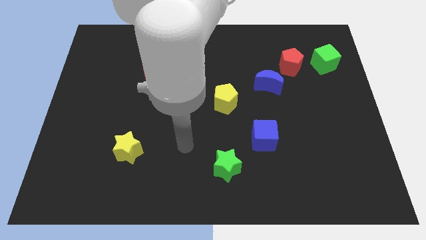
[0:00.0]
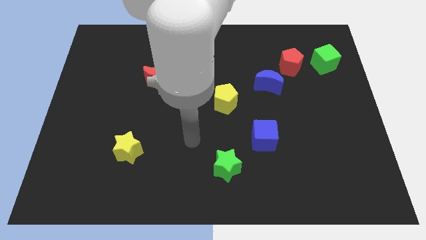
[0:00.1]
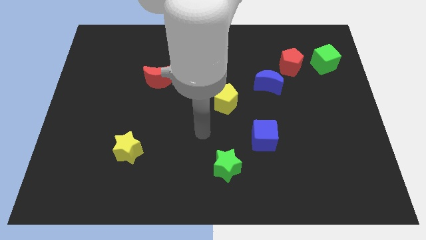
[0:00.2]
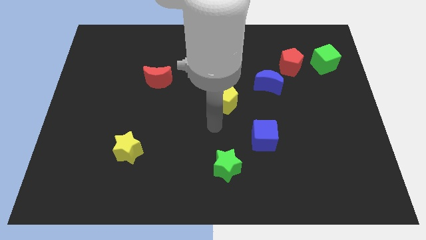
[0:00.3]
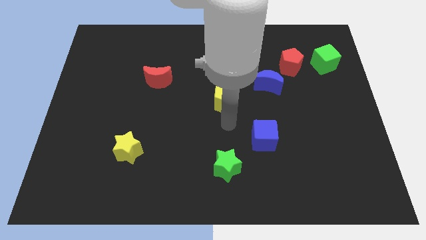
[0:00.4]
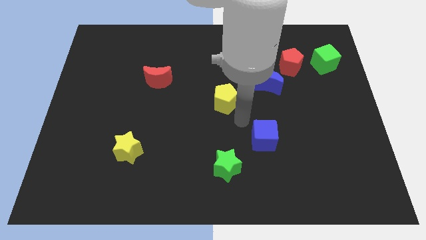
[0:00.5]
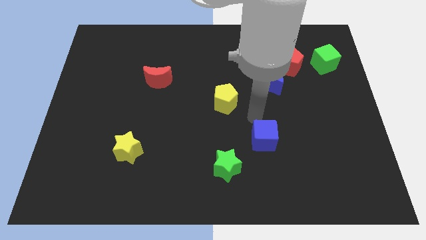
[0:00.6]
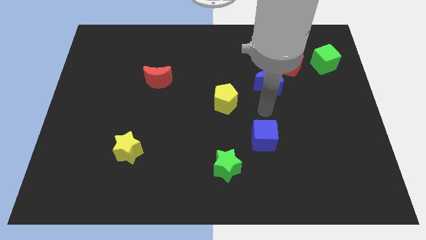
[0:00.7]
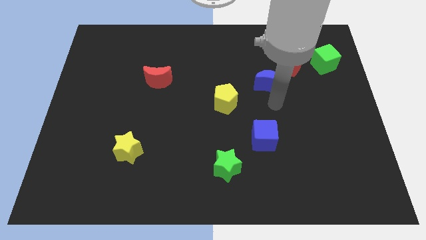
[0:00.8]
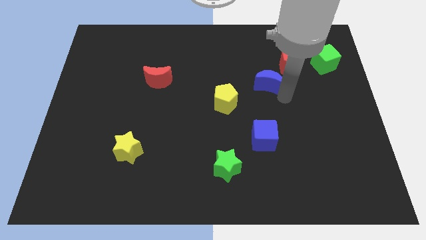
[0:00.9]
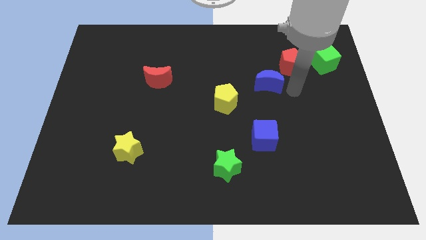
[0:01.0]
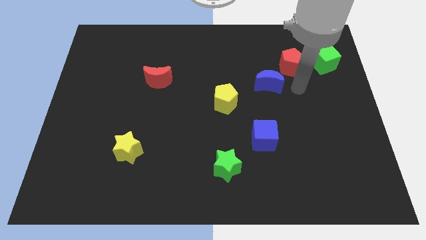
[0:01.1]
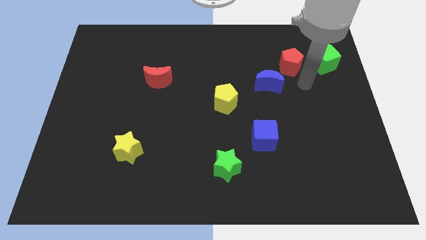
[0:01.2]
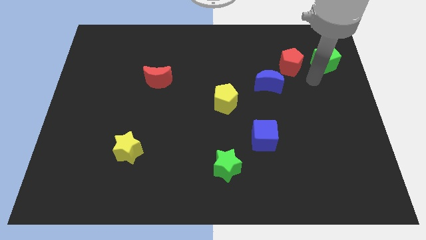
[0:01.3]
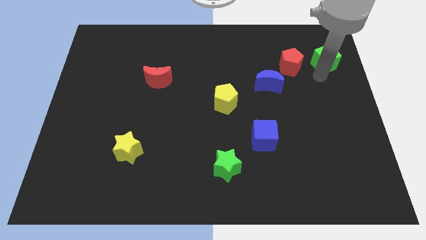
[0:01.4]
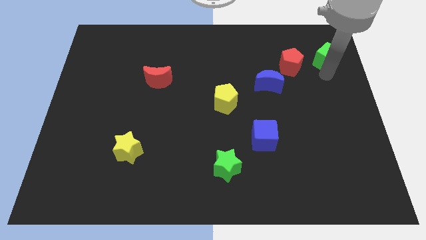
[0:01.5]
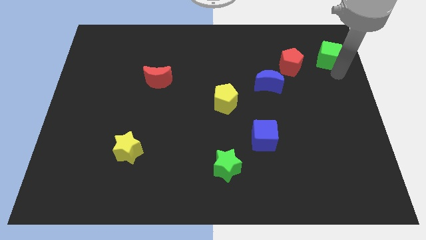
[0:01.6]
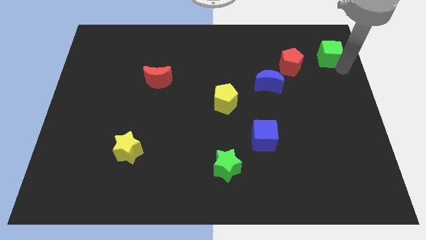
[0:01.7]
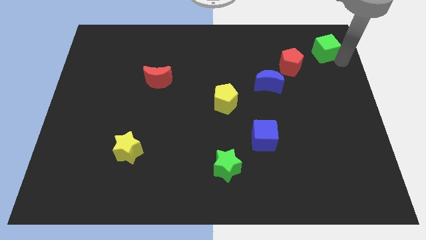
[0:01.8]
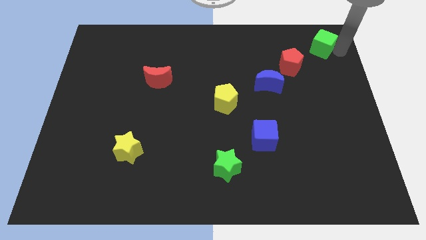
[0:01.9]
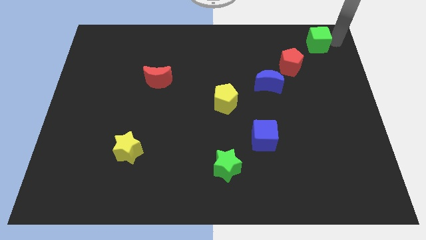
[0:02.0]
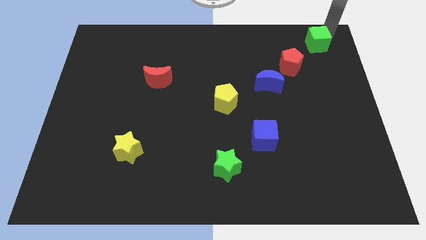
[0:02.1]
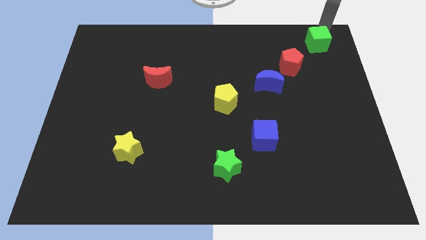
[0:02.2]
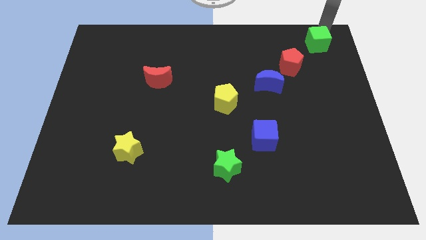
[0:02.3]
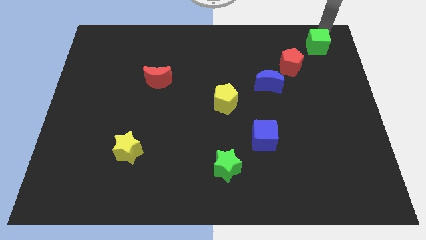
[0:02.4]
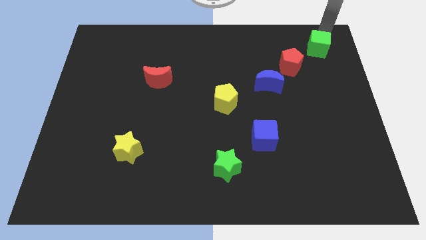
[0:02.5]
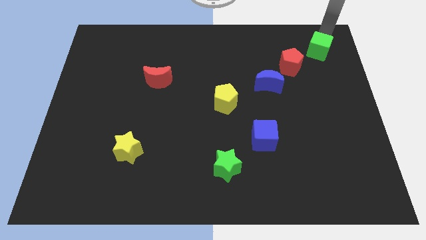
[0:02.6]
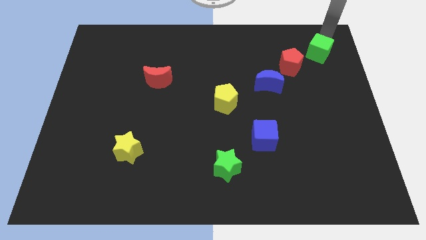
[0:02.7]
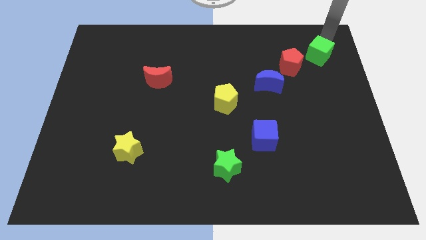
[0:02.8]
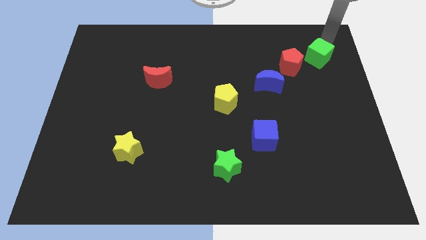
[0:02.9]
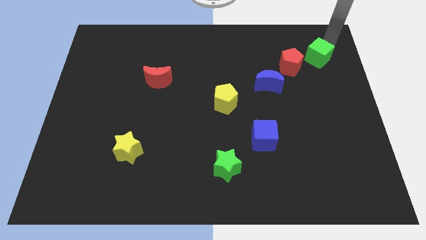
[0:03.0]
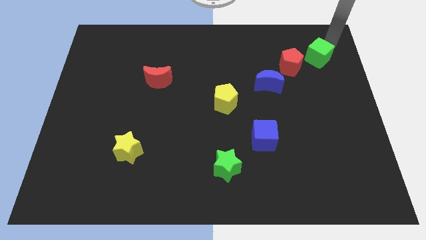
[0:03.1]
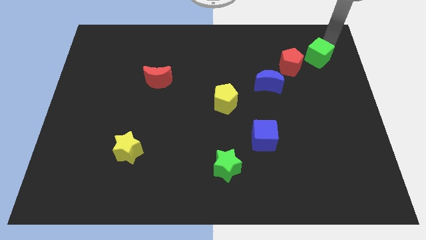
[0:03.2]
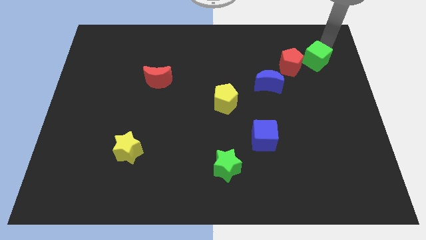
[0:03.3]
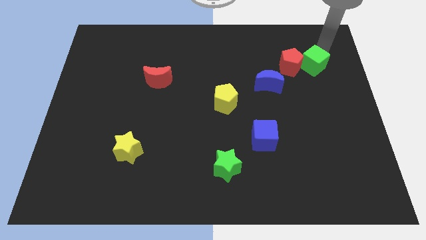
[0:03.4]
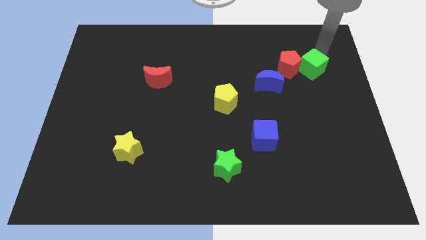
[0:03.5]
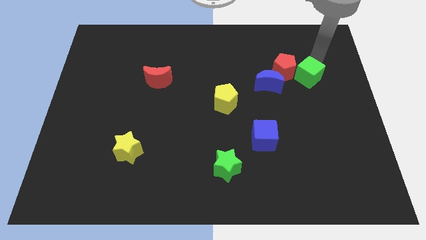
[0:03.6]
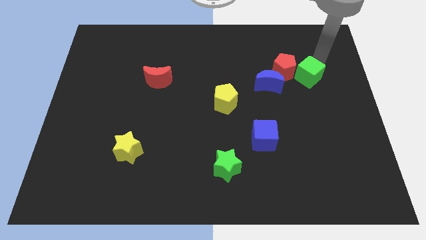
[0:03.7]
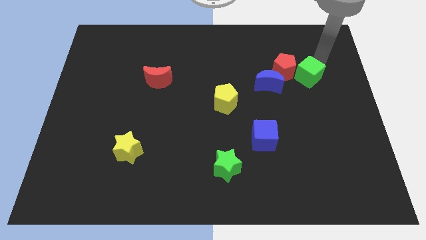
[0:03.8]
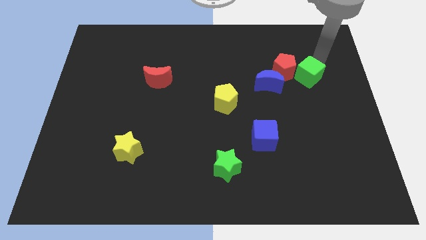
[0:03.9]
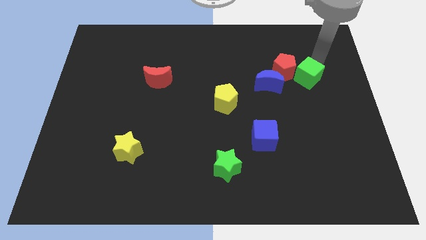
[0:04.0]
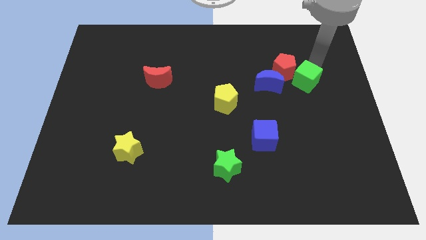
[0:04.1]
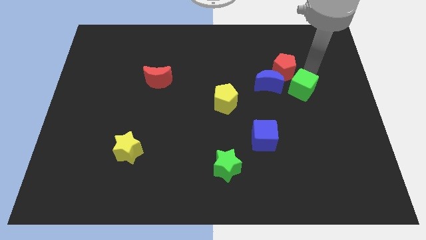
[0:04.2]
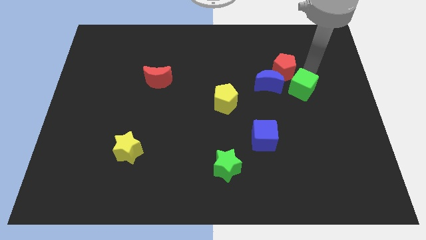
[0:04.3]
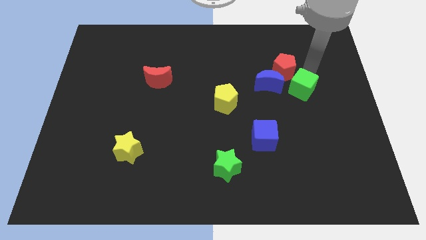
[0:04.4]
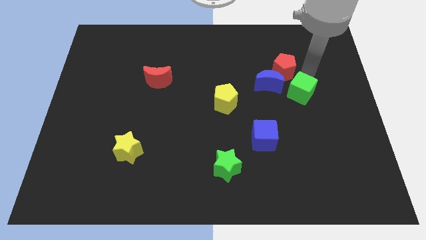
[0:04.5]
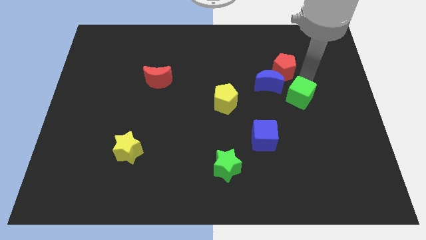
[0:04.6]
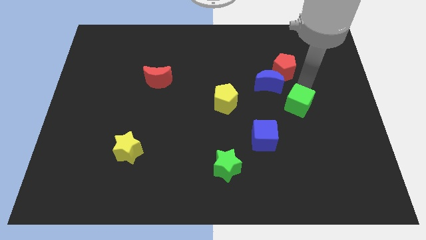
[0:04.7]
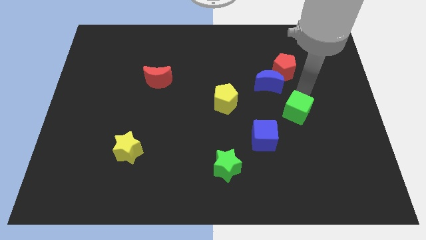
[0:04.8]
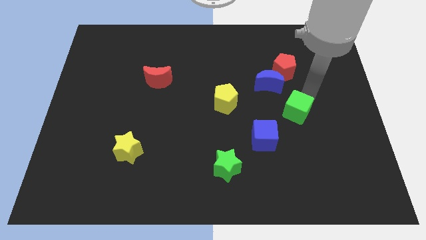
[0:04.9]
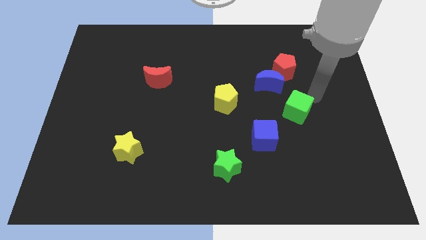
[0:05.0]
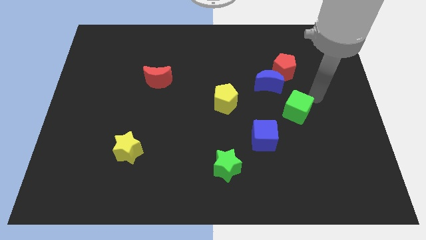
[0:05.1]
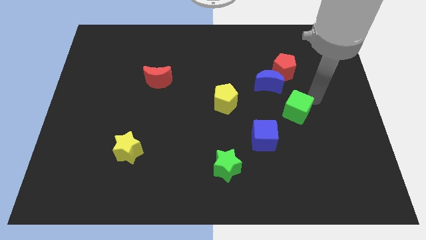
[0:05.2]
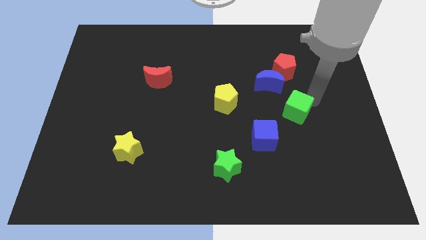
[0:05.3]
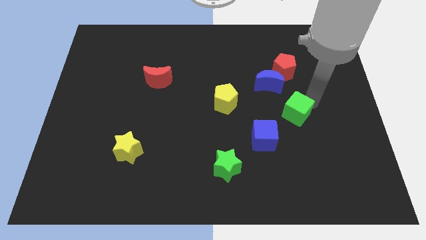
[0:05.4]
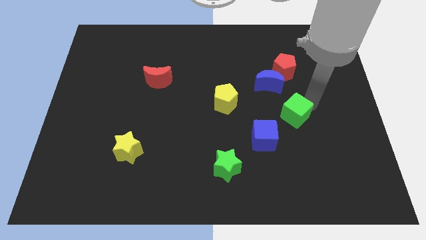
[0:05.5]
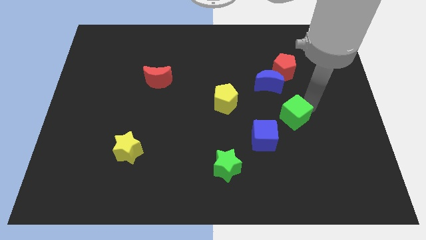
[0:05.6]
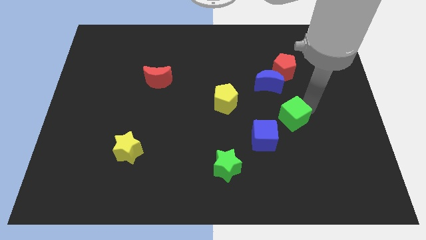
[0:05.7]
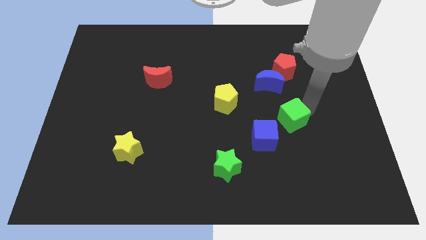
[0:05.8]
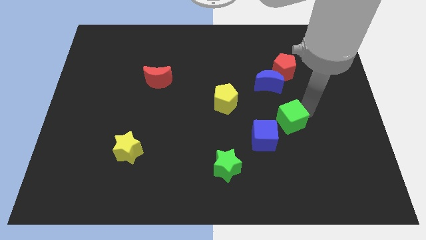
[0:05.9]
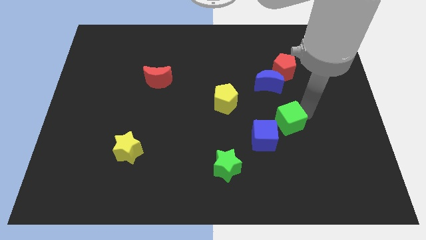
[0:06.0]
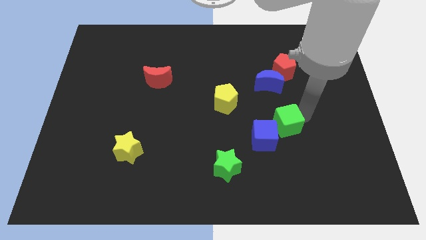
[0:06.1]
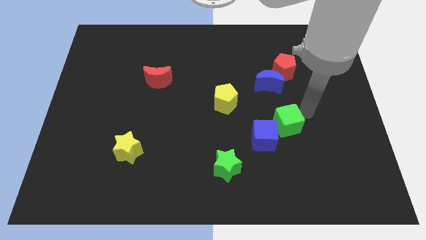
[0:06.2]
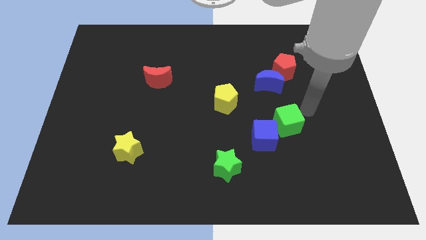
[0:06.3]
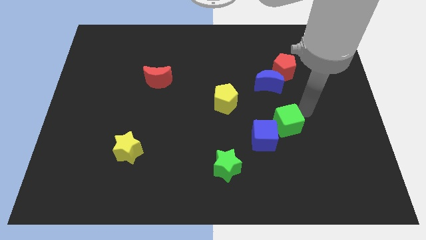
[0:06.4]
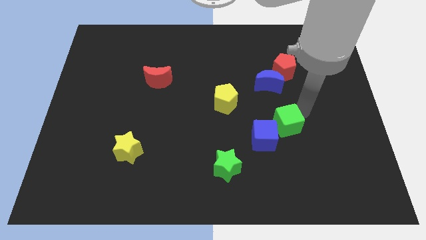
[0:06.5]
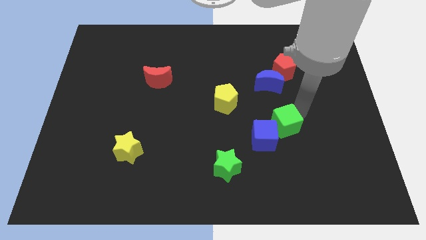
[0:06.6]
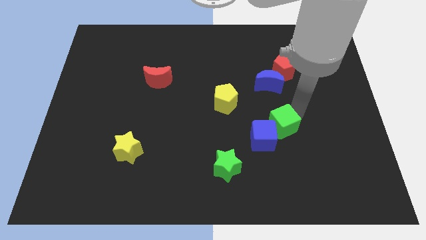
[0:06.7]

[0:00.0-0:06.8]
push the green cube close to the blue cube
